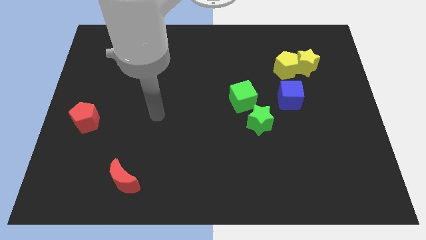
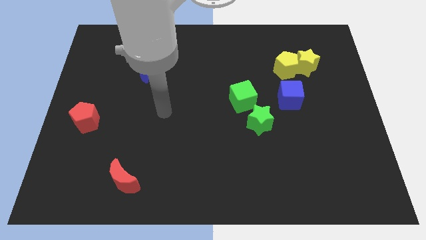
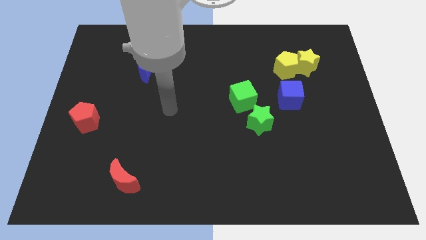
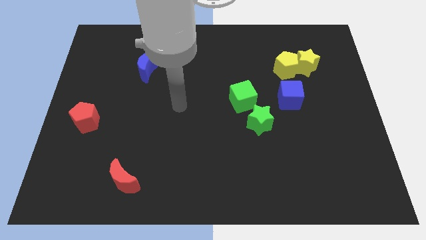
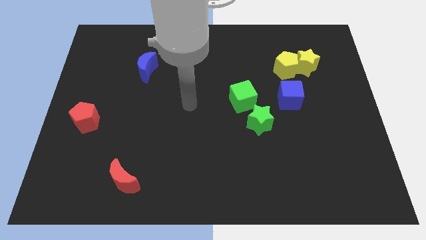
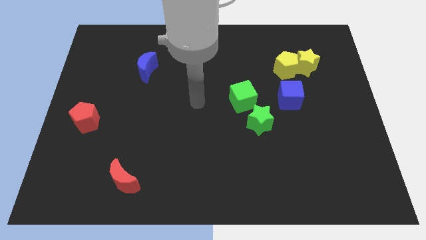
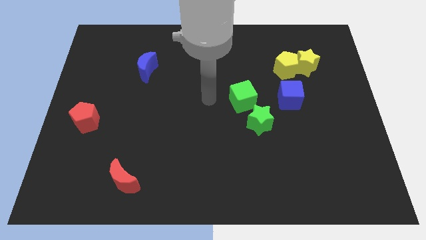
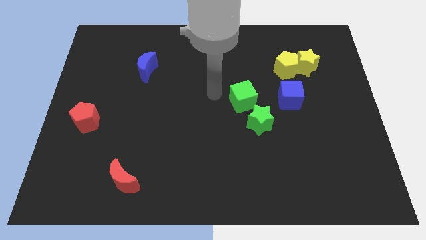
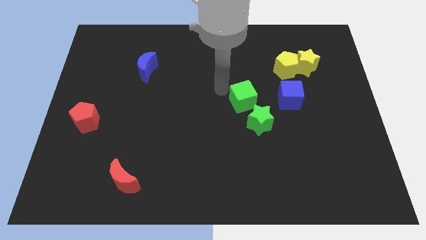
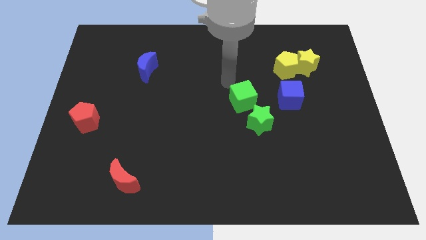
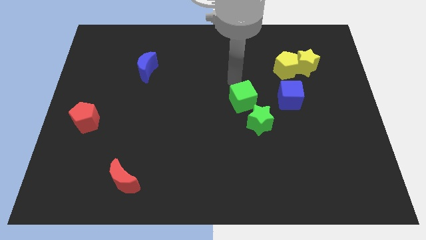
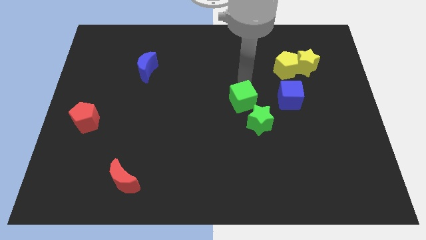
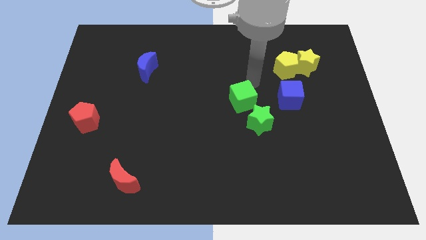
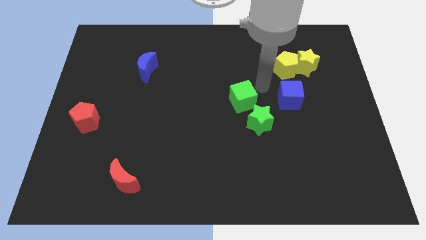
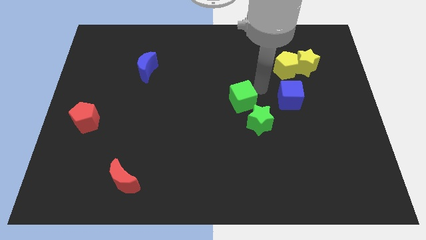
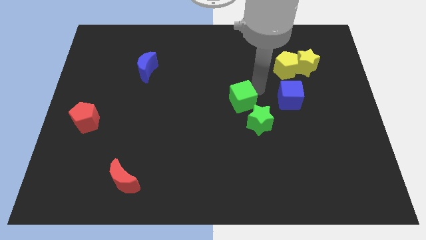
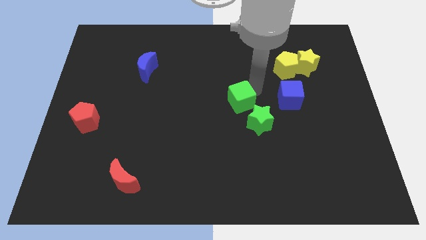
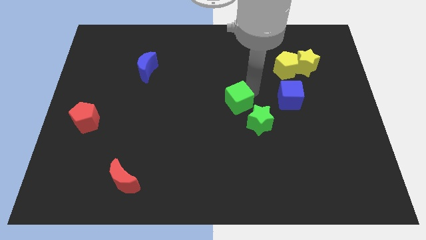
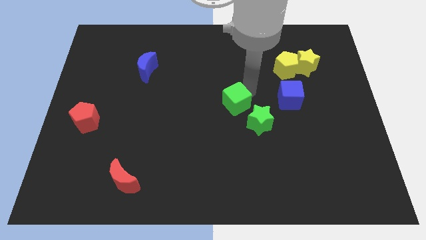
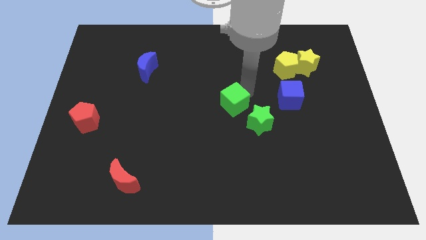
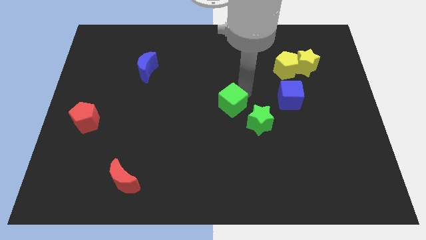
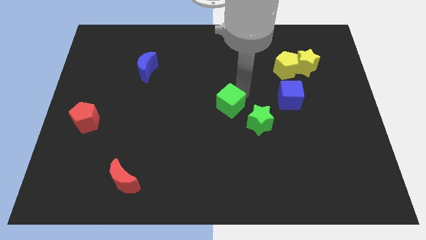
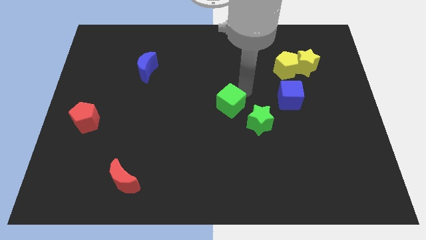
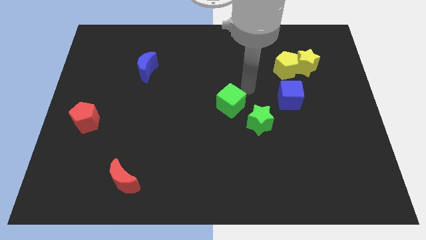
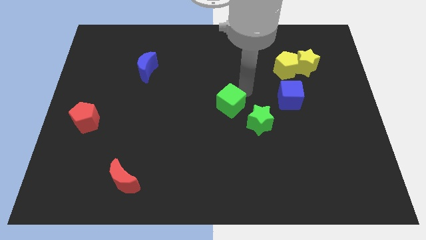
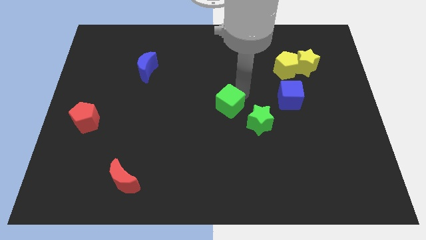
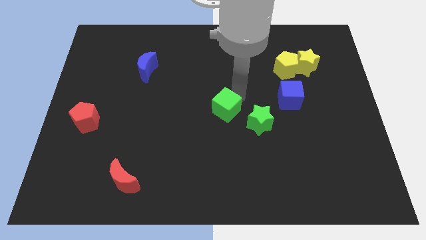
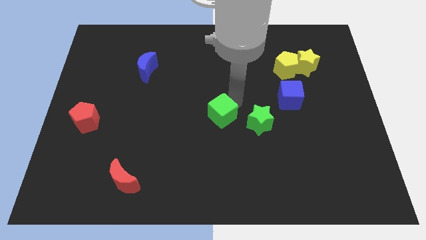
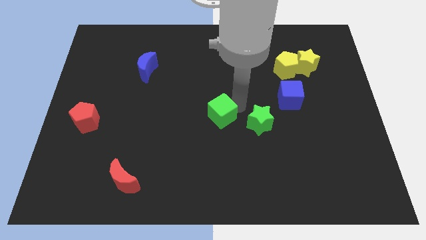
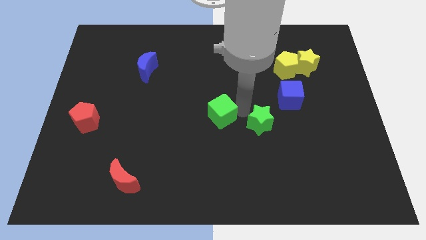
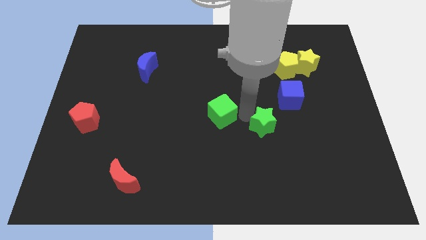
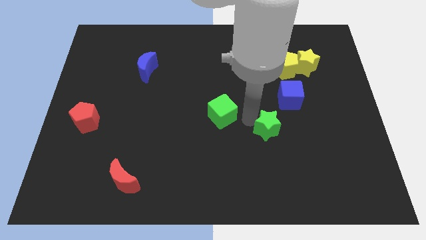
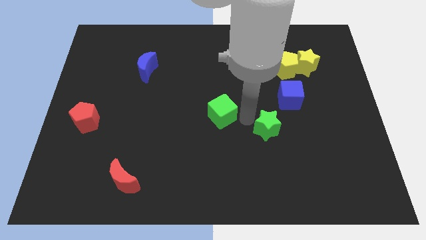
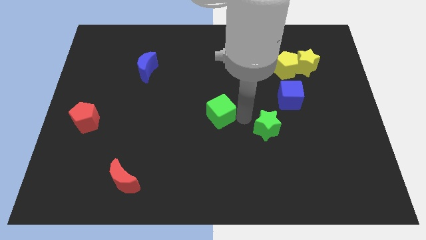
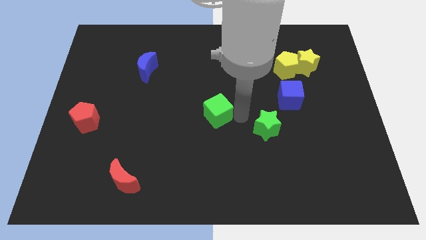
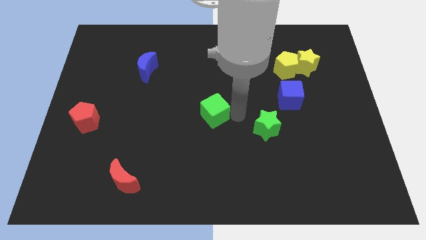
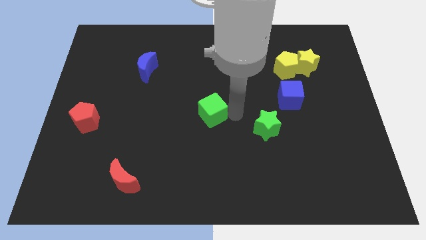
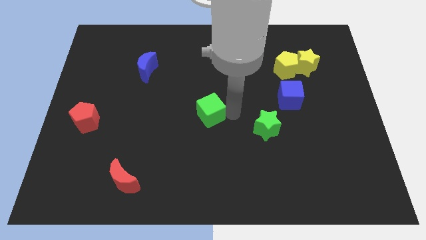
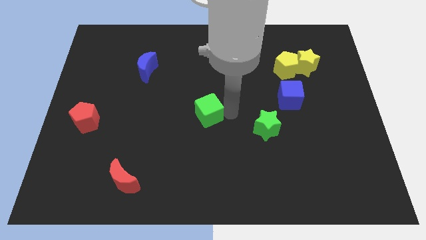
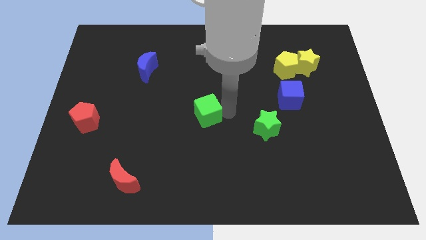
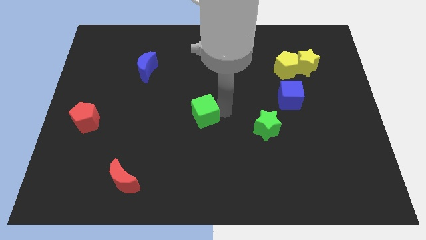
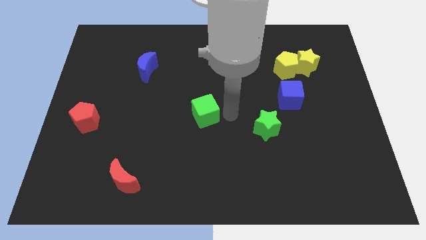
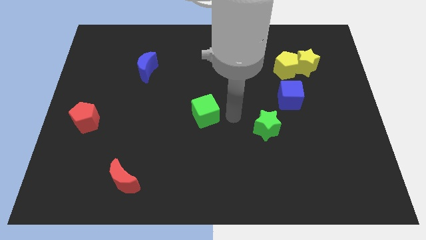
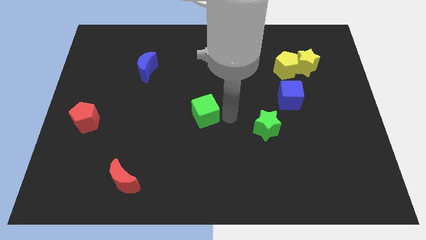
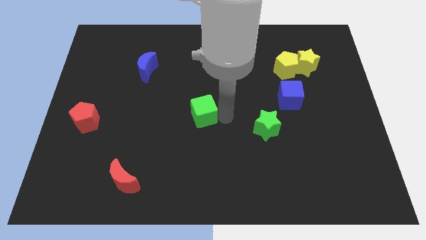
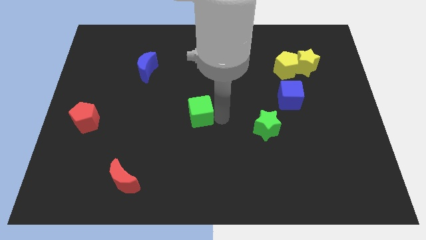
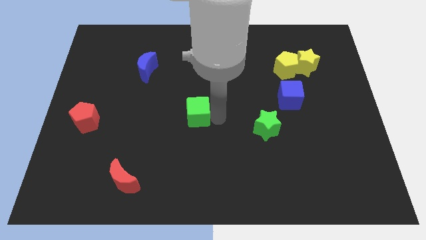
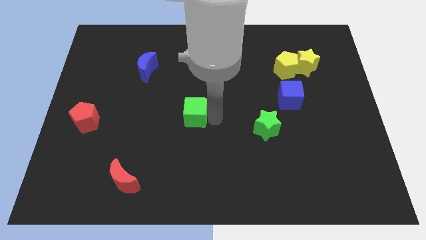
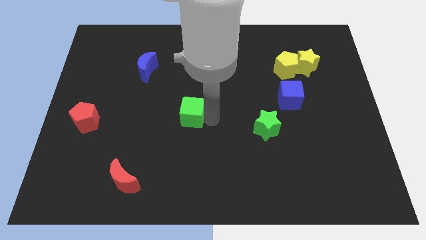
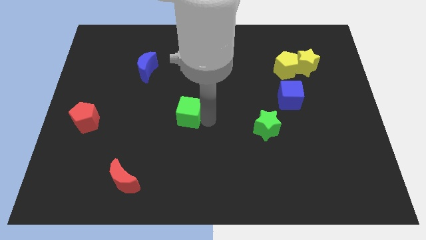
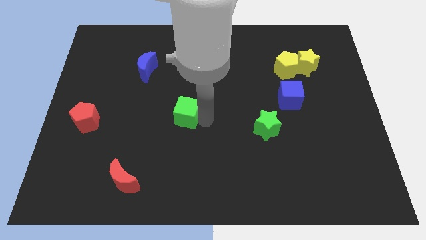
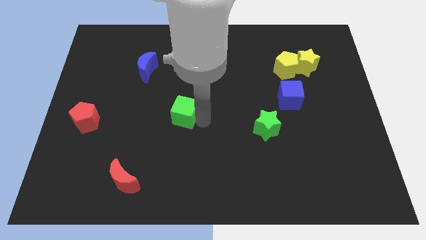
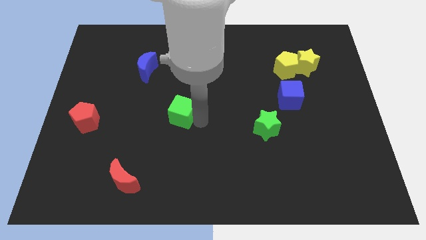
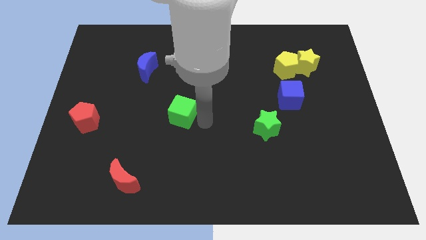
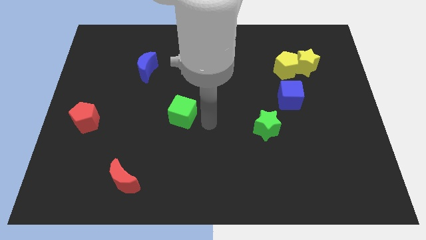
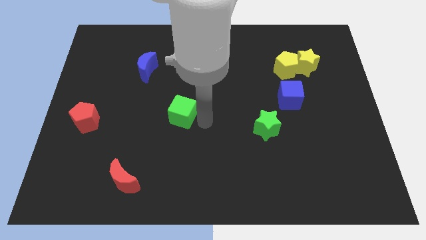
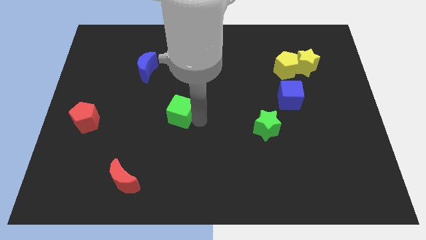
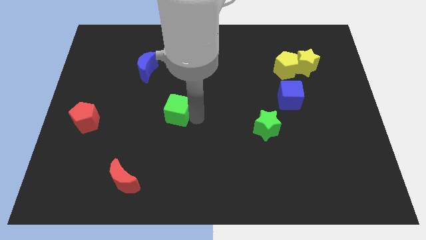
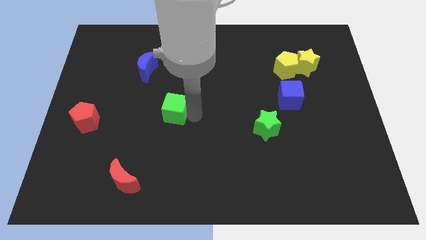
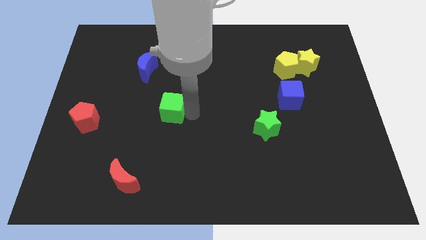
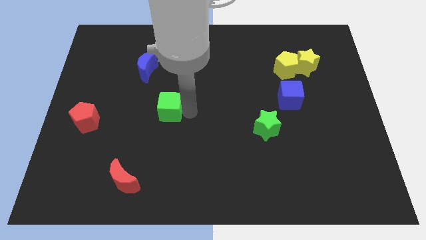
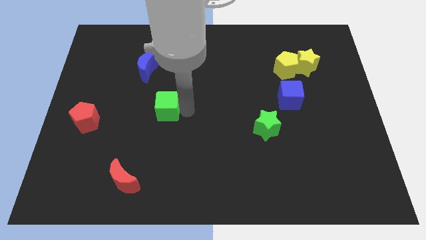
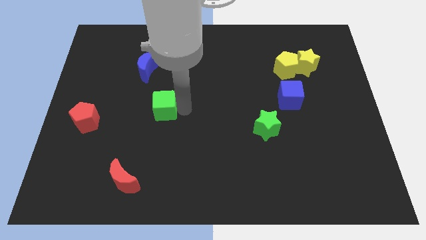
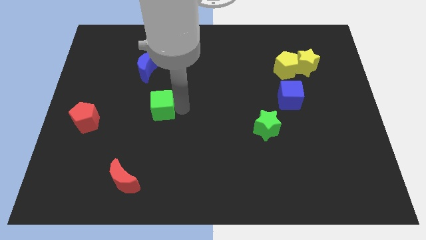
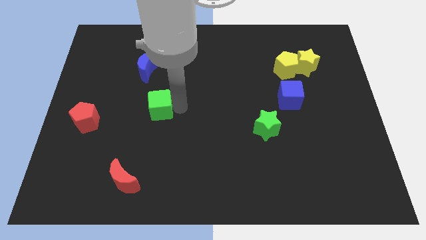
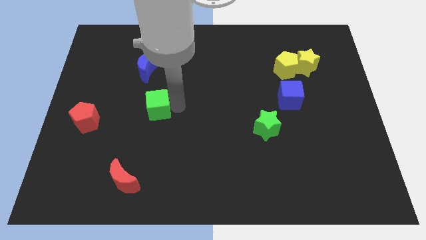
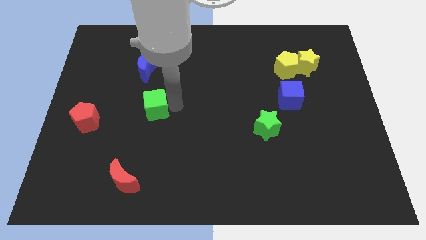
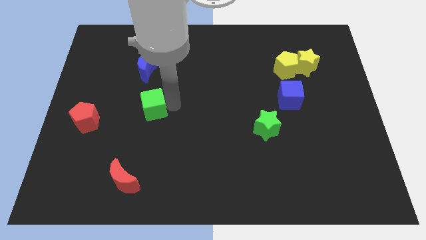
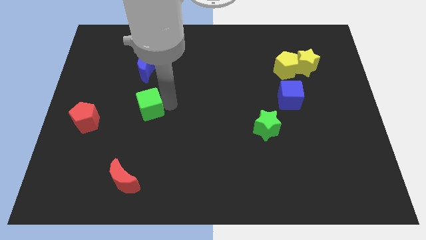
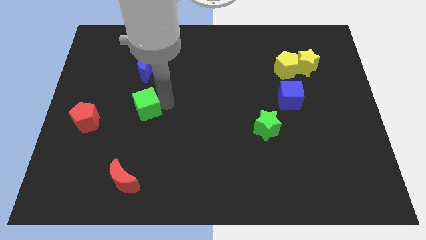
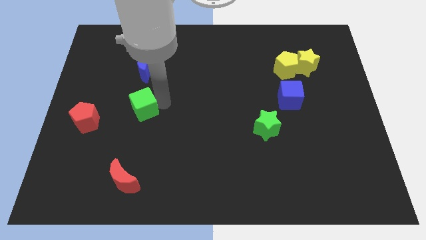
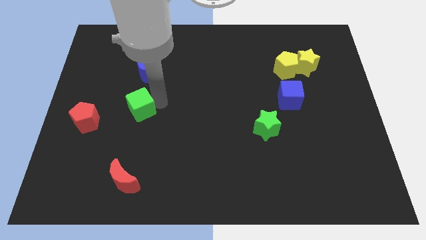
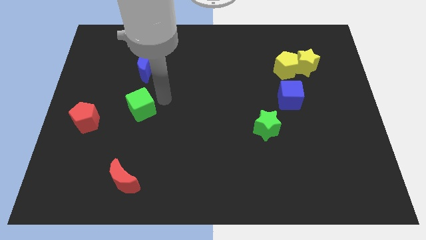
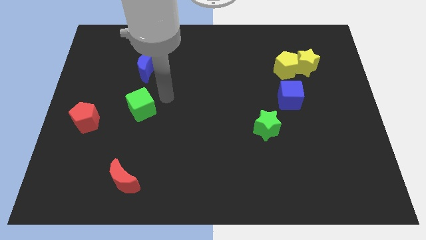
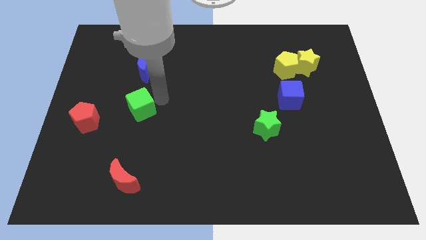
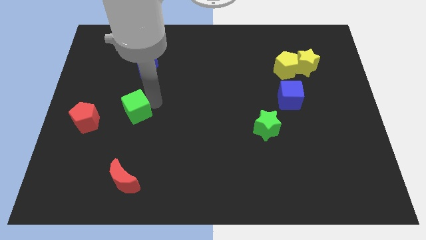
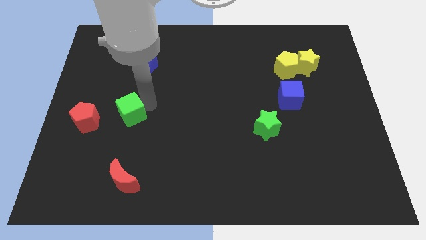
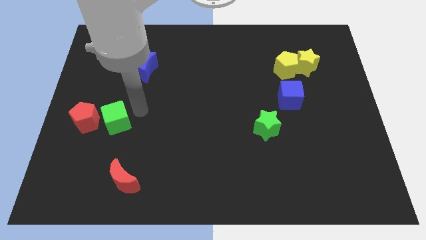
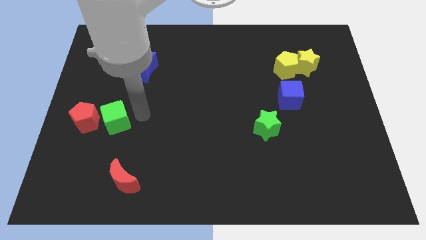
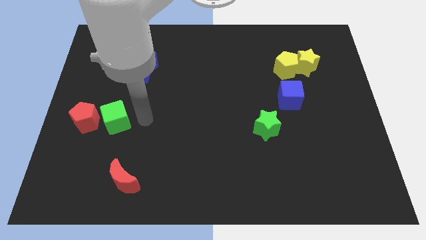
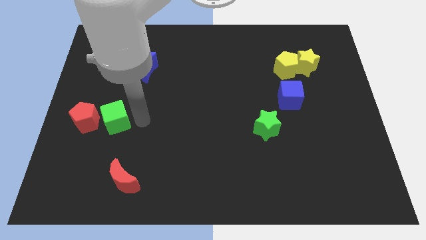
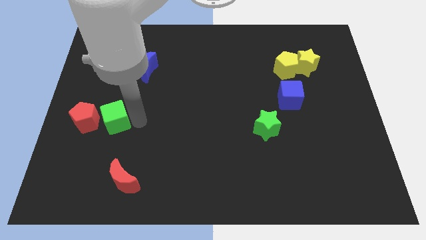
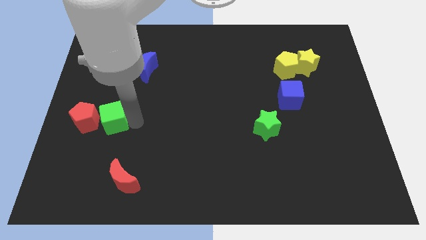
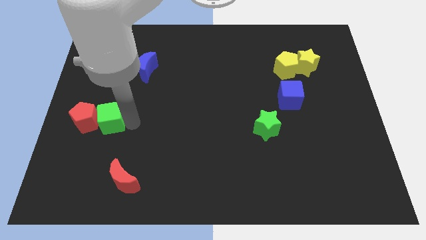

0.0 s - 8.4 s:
move the green cube to the red pentagon
